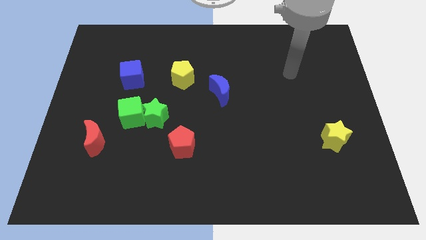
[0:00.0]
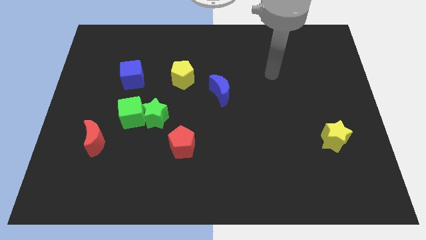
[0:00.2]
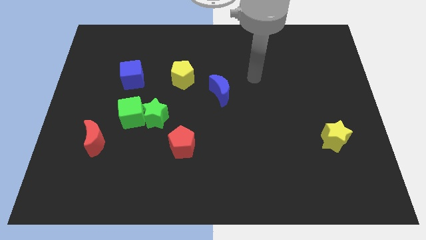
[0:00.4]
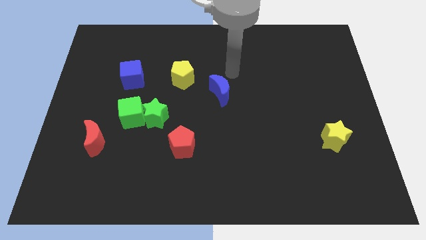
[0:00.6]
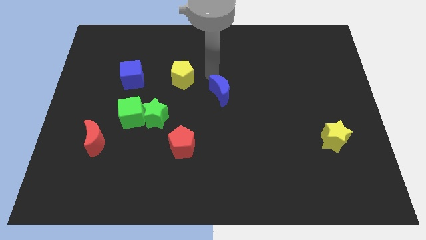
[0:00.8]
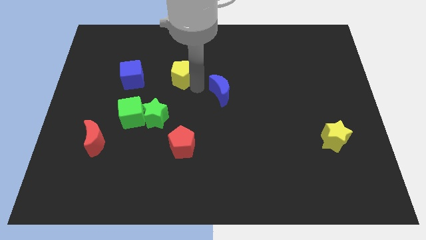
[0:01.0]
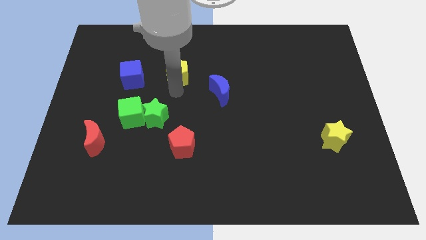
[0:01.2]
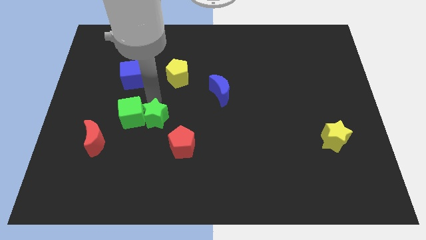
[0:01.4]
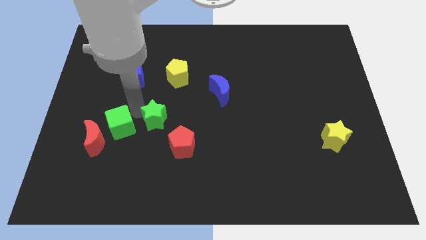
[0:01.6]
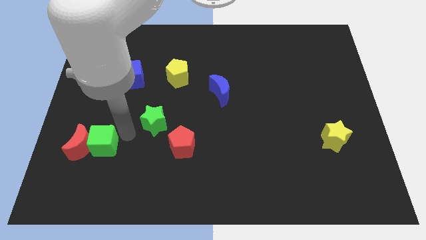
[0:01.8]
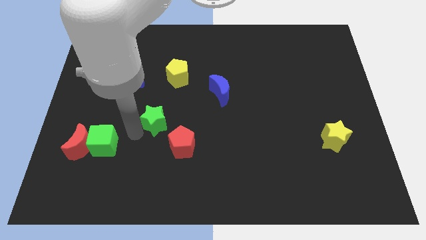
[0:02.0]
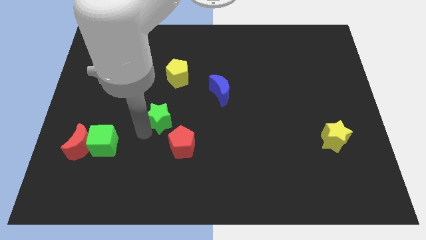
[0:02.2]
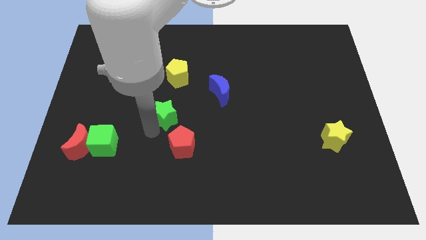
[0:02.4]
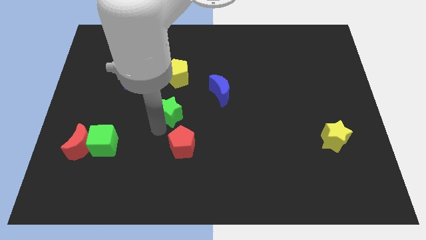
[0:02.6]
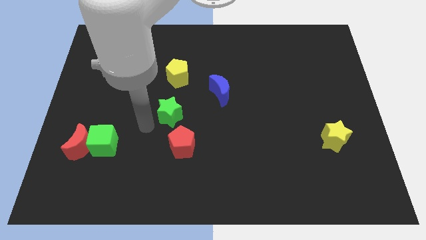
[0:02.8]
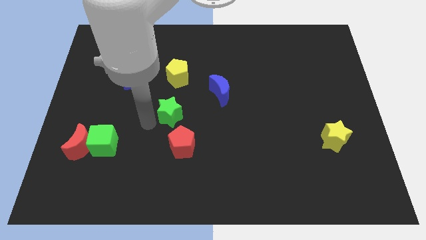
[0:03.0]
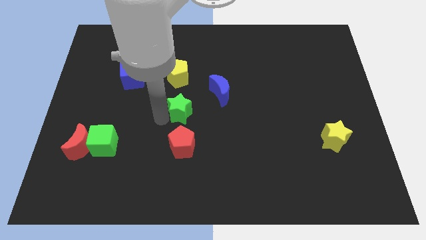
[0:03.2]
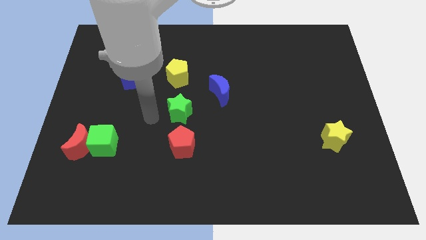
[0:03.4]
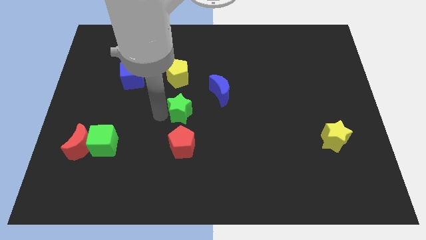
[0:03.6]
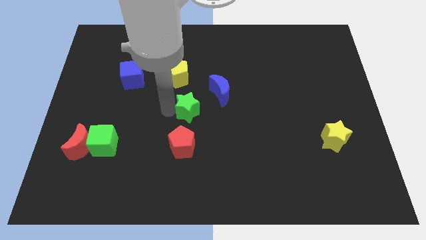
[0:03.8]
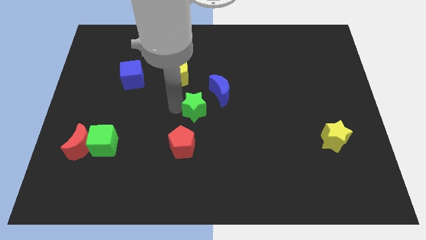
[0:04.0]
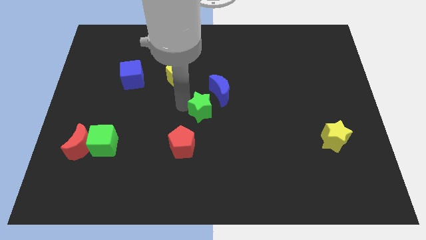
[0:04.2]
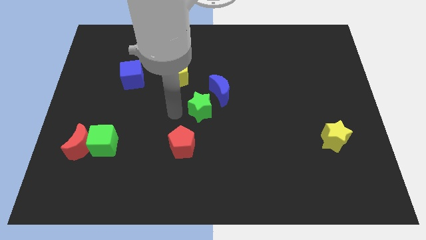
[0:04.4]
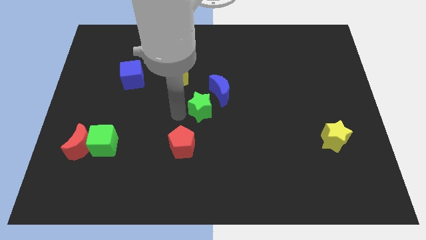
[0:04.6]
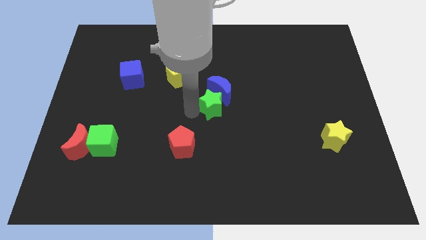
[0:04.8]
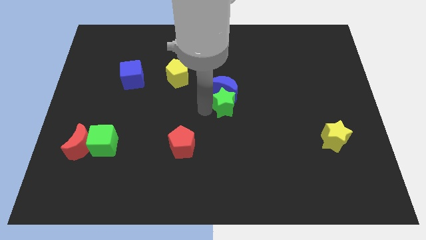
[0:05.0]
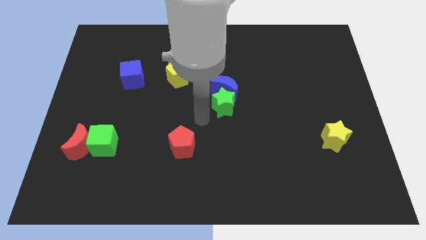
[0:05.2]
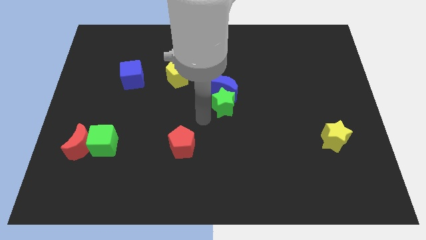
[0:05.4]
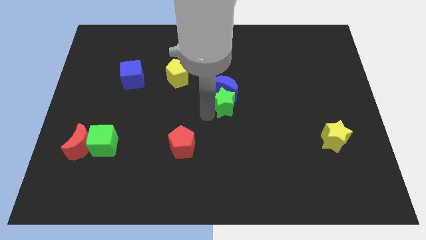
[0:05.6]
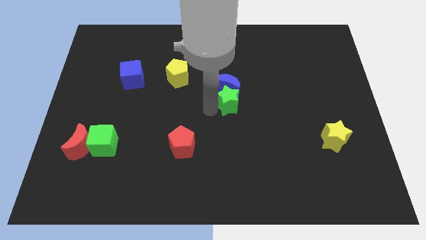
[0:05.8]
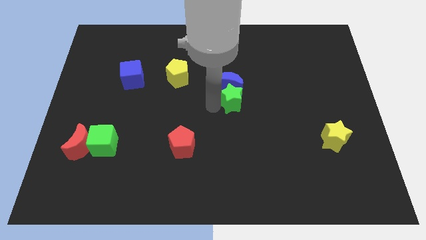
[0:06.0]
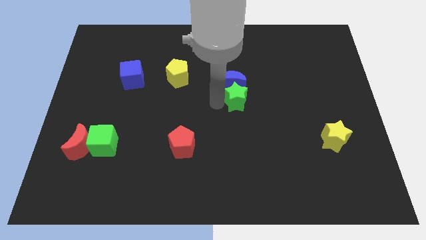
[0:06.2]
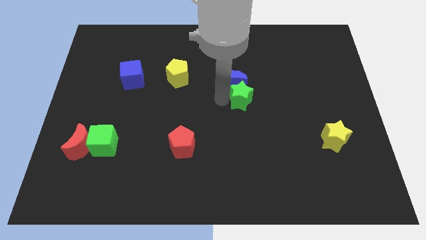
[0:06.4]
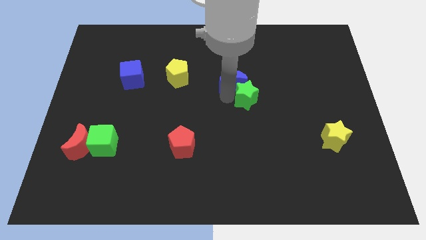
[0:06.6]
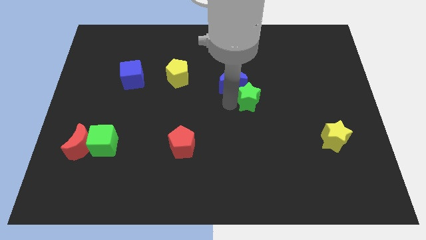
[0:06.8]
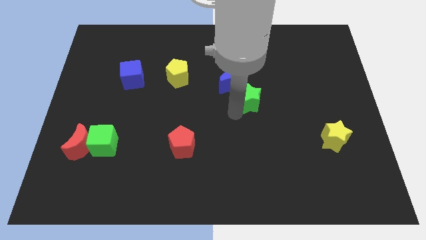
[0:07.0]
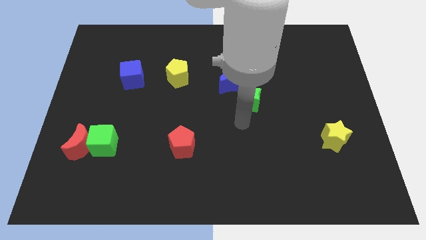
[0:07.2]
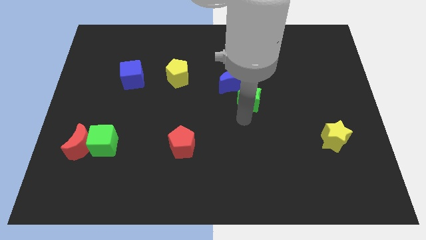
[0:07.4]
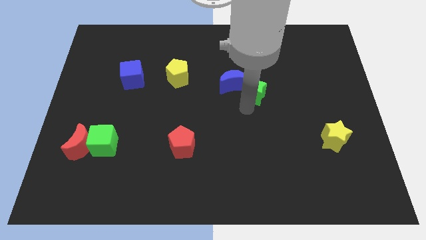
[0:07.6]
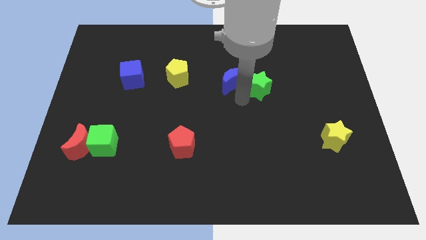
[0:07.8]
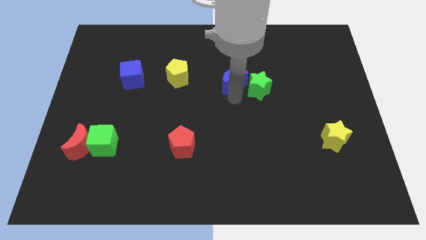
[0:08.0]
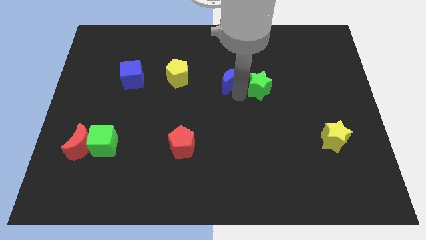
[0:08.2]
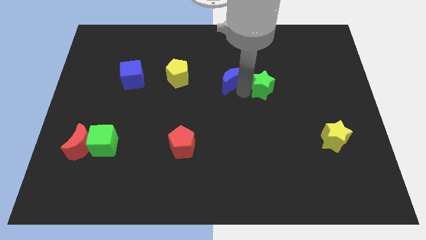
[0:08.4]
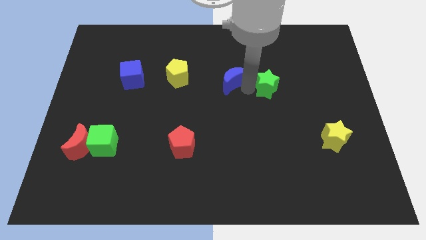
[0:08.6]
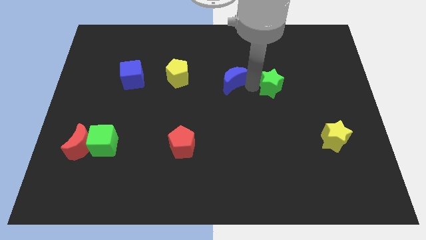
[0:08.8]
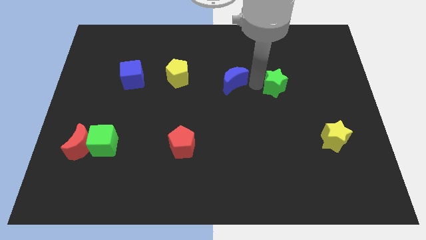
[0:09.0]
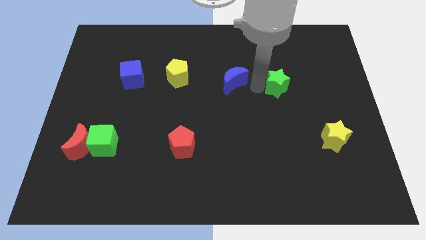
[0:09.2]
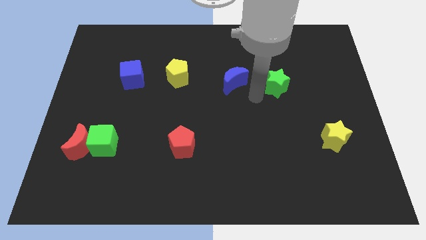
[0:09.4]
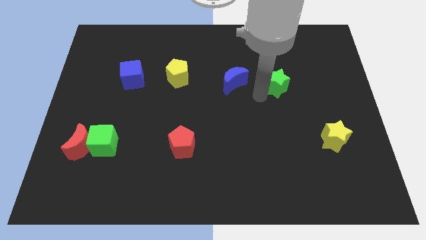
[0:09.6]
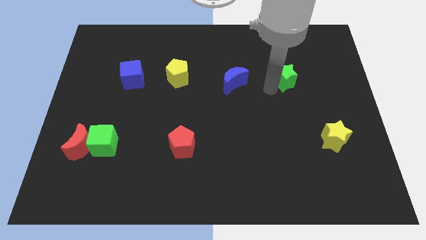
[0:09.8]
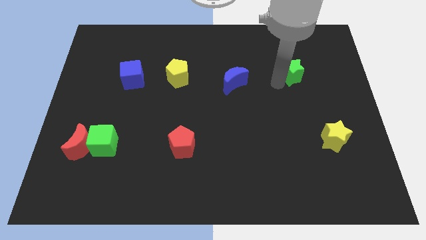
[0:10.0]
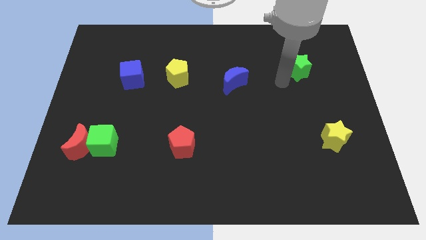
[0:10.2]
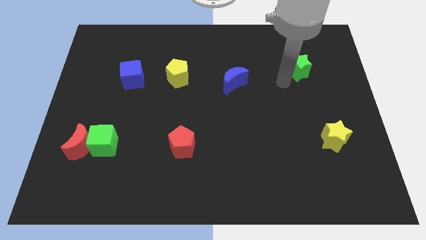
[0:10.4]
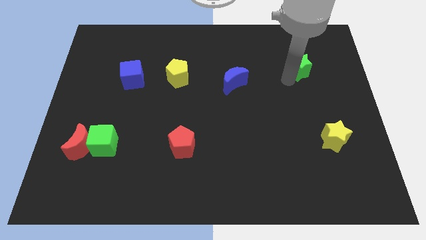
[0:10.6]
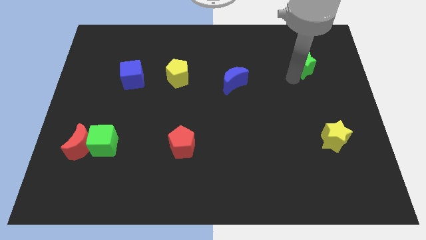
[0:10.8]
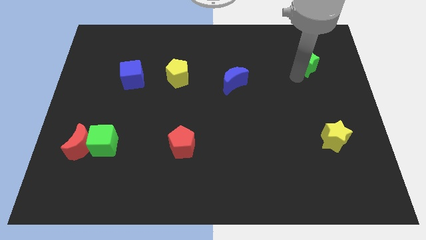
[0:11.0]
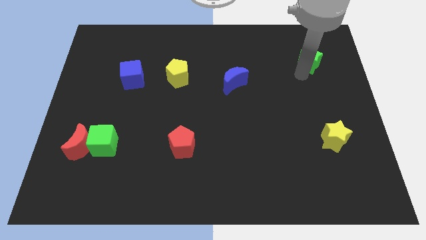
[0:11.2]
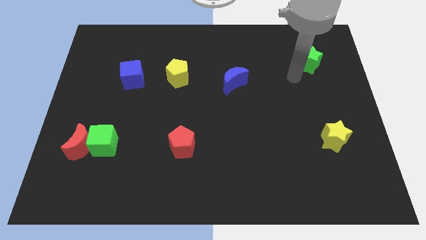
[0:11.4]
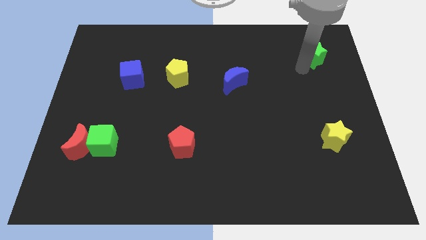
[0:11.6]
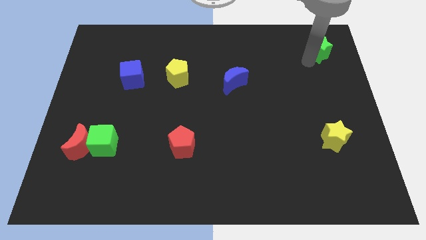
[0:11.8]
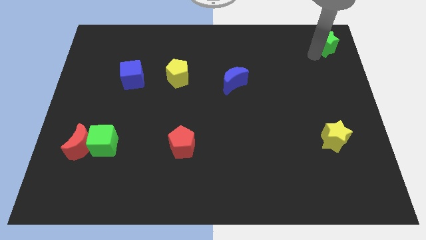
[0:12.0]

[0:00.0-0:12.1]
slide the green star to the upper right corner

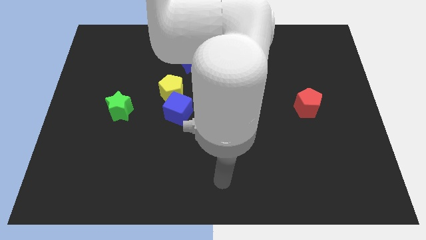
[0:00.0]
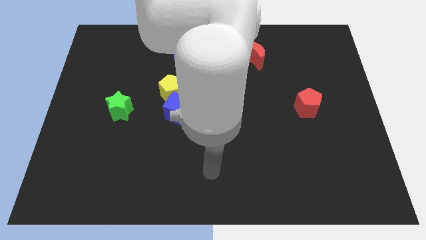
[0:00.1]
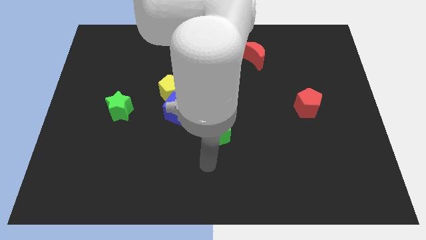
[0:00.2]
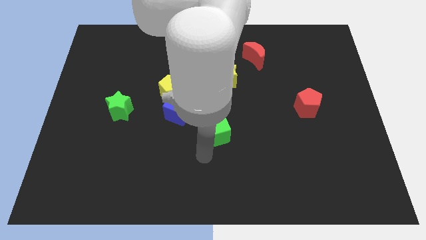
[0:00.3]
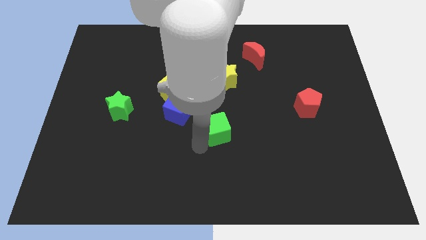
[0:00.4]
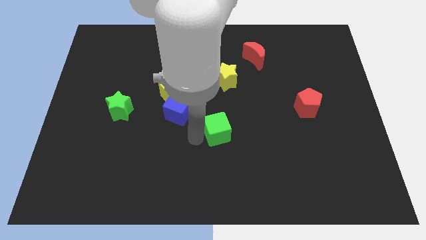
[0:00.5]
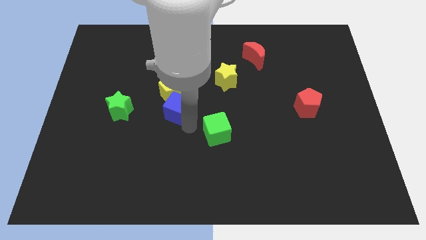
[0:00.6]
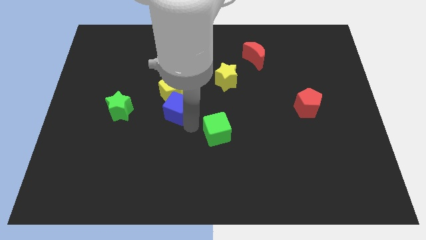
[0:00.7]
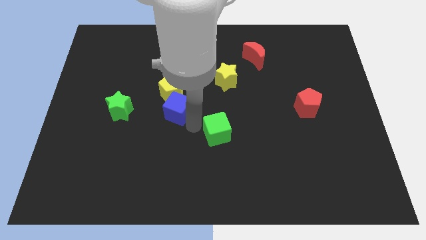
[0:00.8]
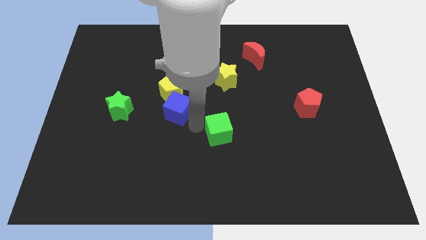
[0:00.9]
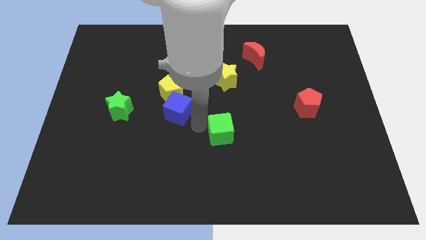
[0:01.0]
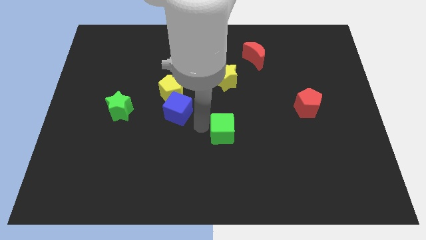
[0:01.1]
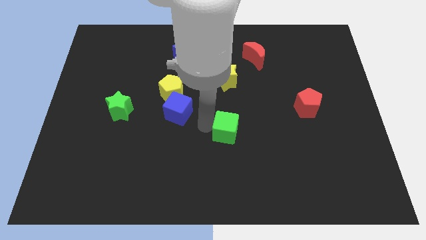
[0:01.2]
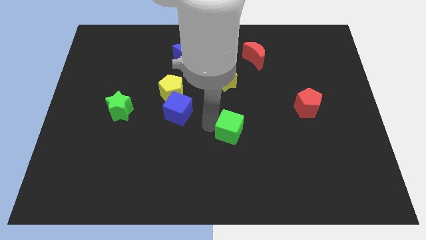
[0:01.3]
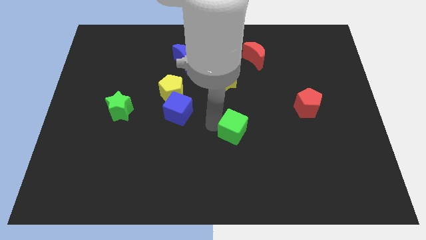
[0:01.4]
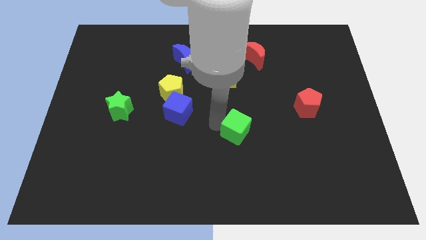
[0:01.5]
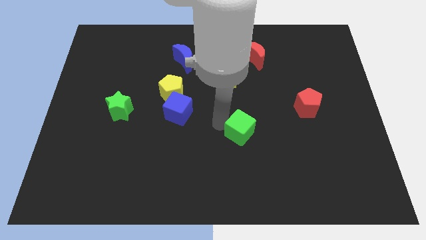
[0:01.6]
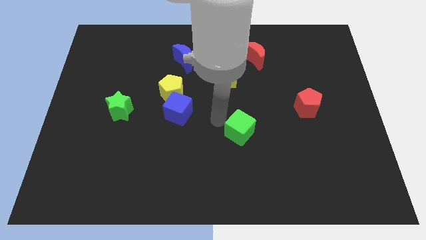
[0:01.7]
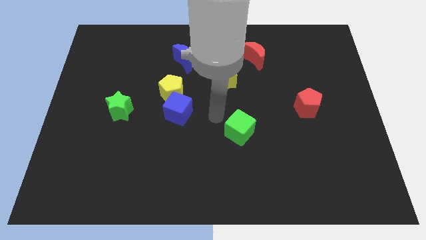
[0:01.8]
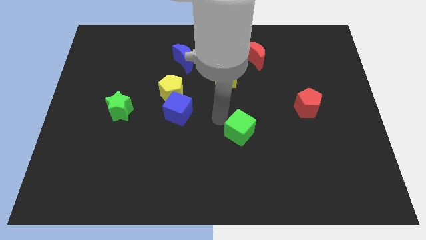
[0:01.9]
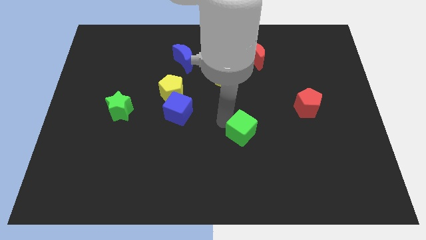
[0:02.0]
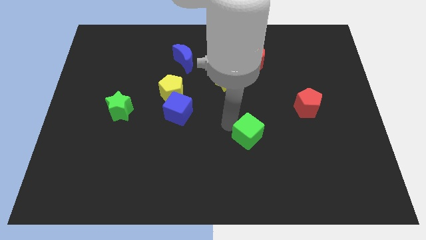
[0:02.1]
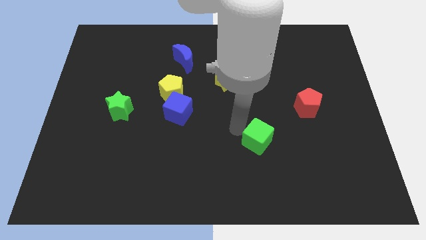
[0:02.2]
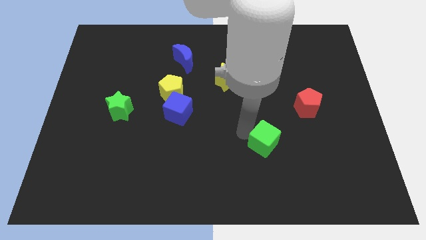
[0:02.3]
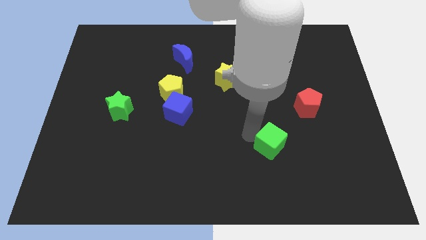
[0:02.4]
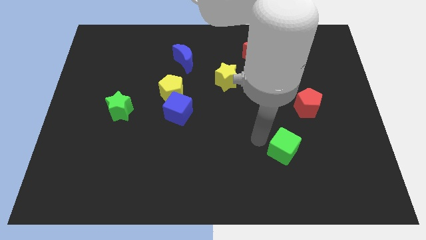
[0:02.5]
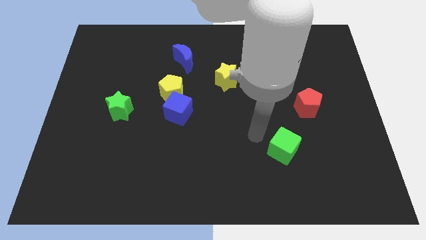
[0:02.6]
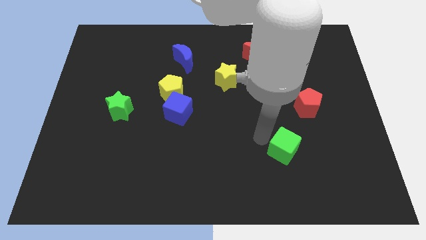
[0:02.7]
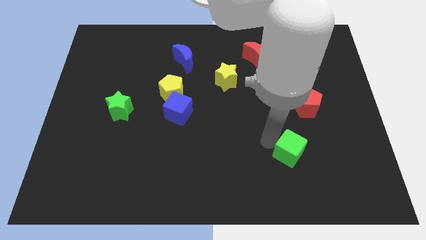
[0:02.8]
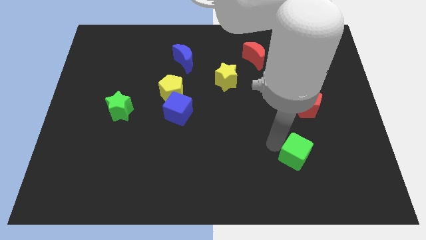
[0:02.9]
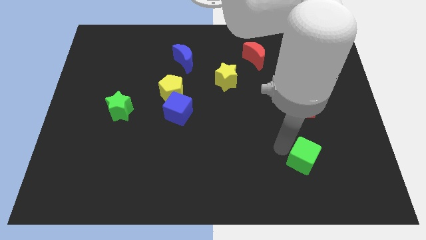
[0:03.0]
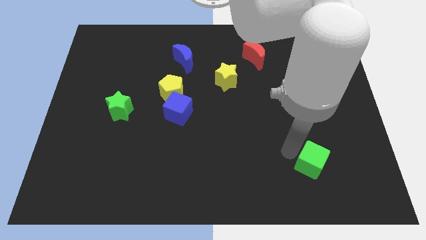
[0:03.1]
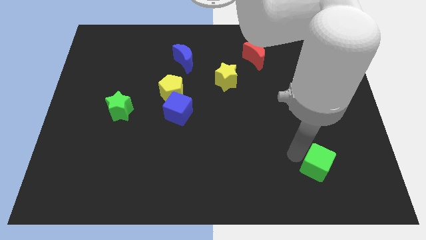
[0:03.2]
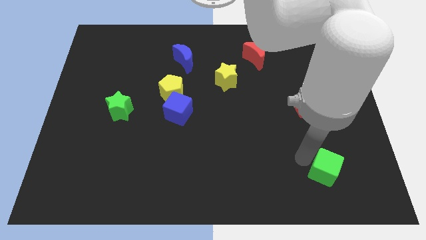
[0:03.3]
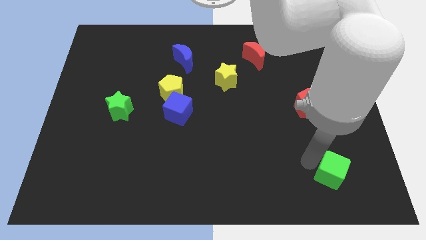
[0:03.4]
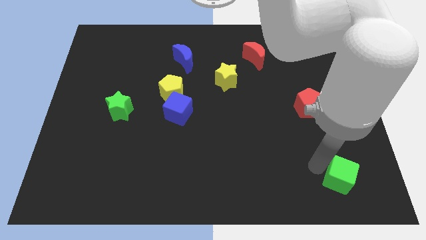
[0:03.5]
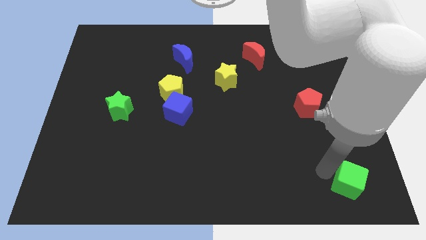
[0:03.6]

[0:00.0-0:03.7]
slide the green cube to the bottom right corner
